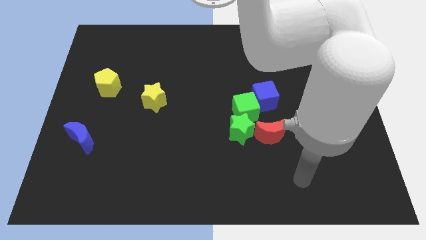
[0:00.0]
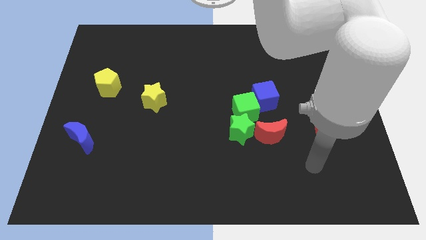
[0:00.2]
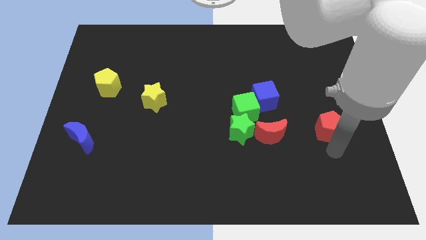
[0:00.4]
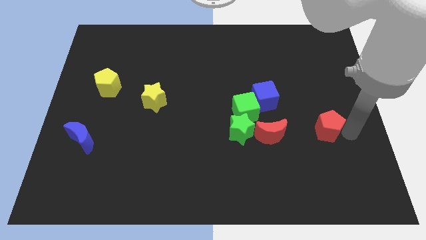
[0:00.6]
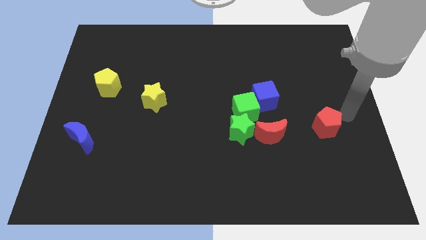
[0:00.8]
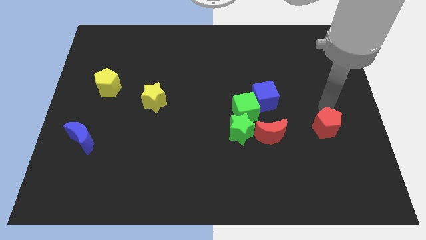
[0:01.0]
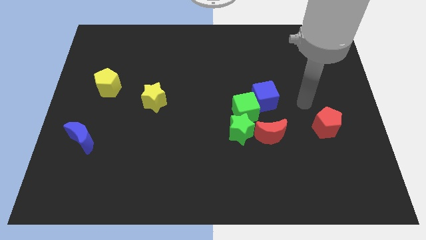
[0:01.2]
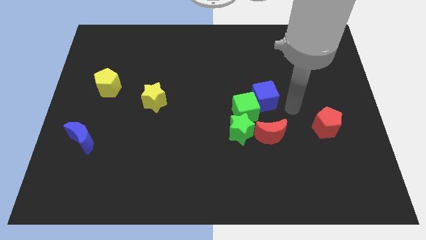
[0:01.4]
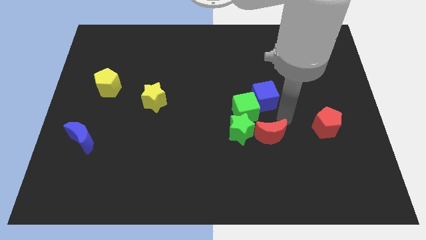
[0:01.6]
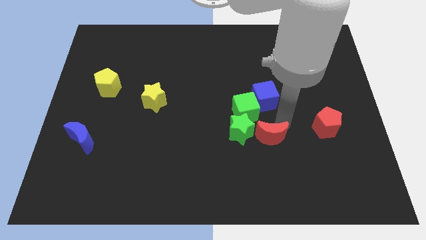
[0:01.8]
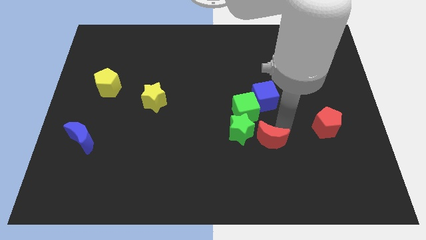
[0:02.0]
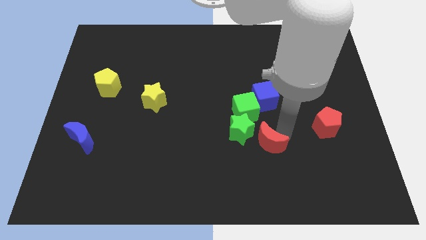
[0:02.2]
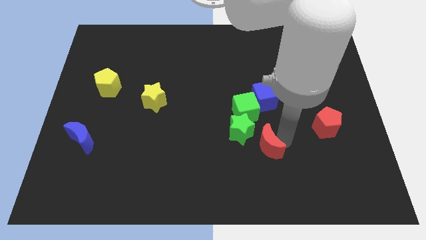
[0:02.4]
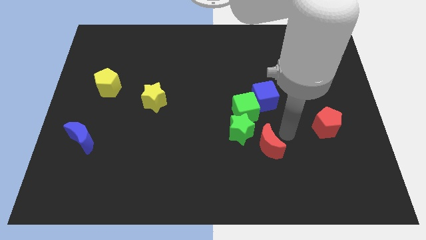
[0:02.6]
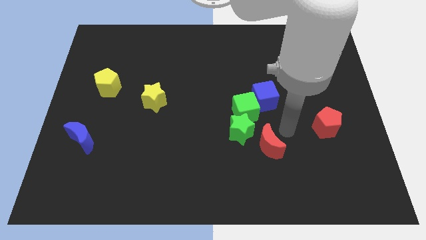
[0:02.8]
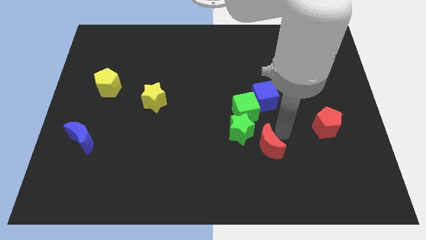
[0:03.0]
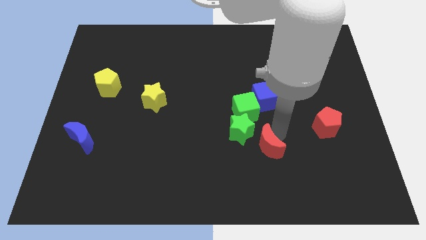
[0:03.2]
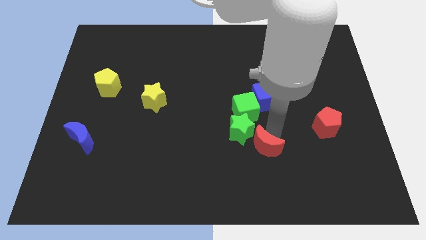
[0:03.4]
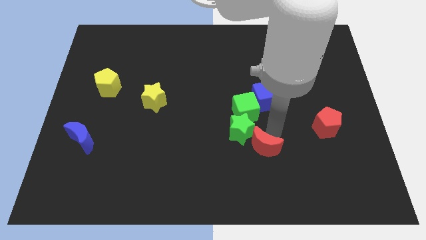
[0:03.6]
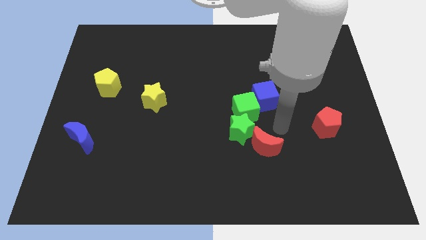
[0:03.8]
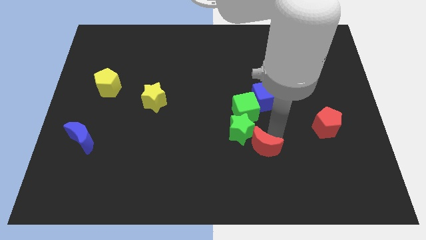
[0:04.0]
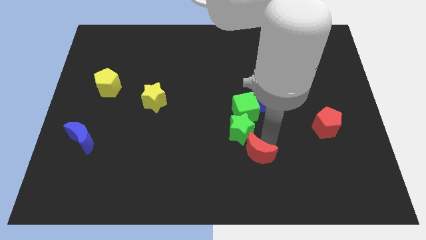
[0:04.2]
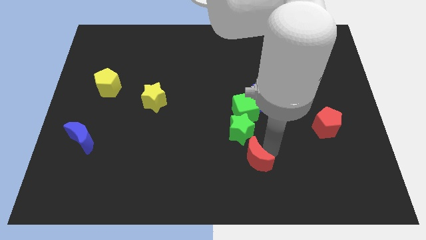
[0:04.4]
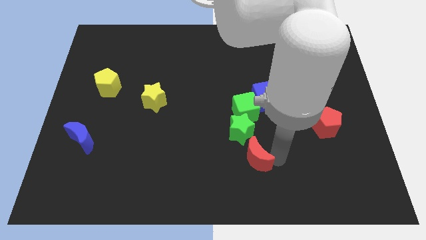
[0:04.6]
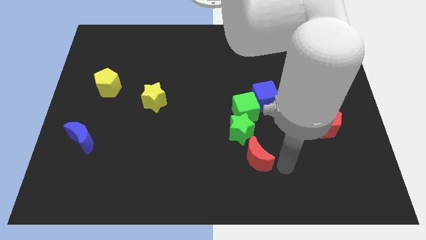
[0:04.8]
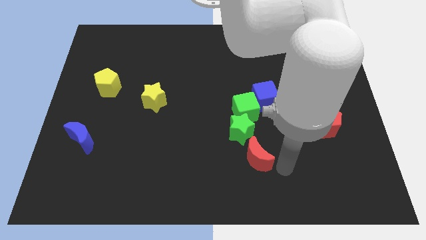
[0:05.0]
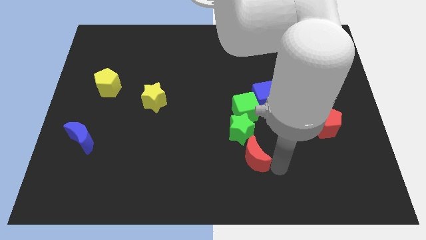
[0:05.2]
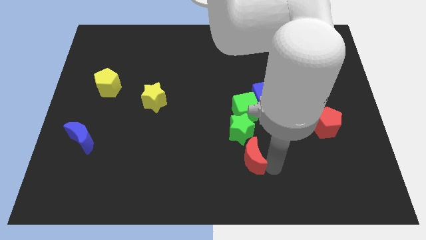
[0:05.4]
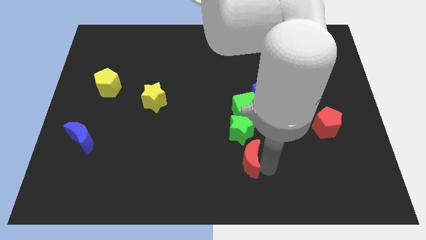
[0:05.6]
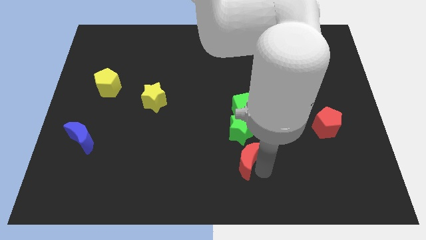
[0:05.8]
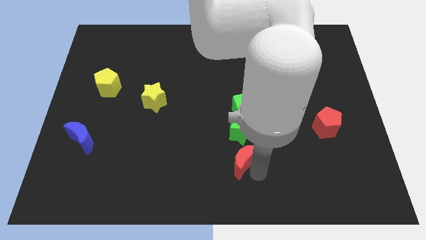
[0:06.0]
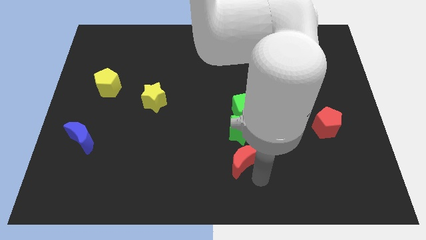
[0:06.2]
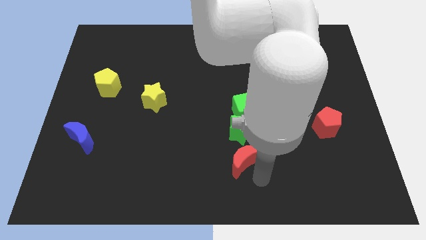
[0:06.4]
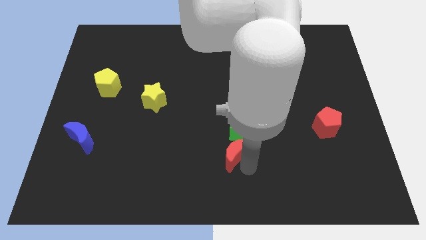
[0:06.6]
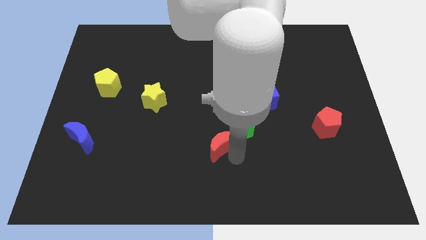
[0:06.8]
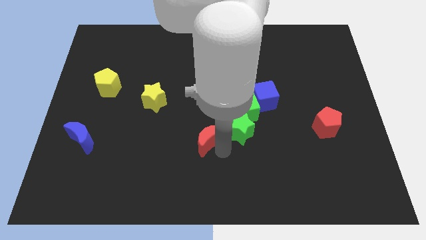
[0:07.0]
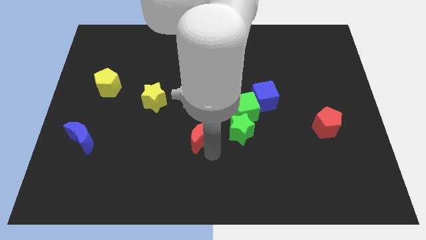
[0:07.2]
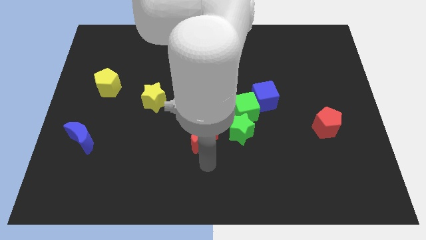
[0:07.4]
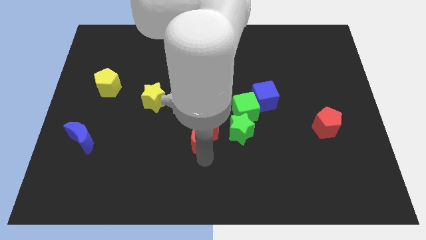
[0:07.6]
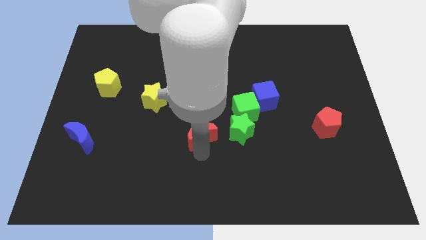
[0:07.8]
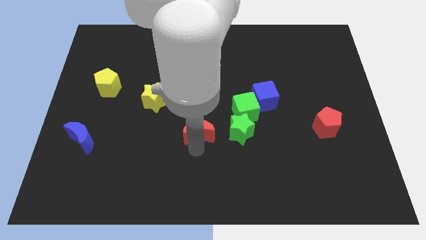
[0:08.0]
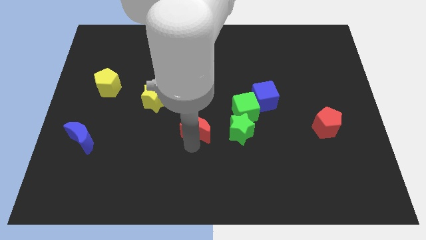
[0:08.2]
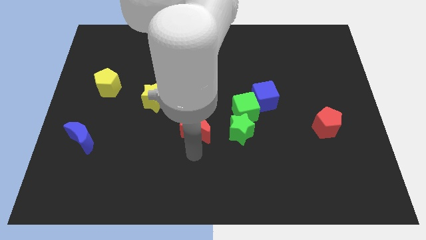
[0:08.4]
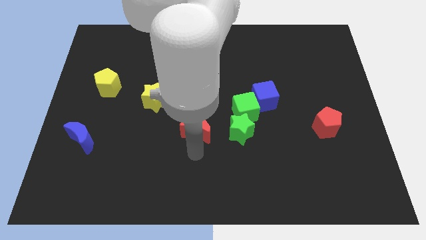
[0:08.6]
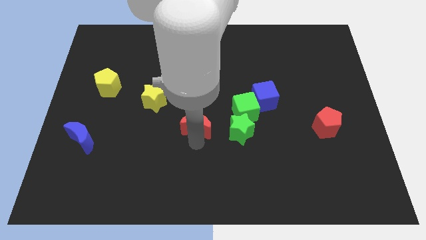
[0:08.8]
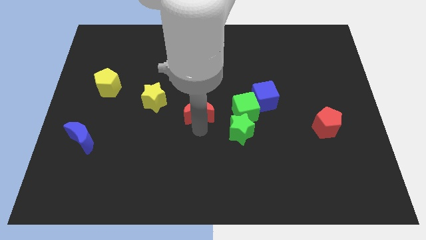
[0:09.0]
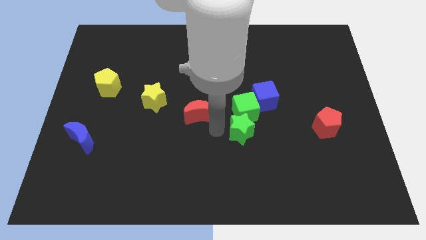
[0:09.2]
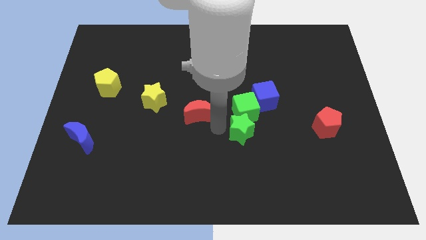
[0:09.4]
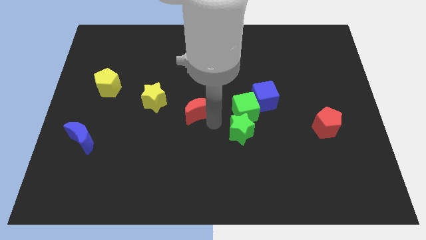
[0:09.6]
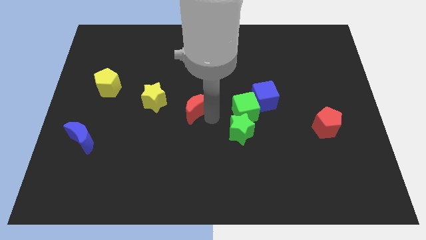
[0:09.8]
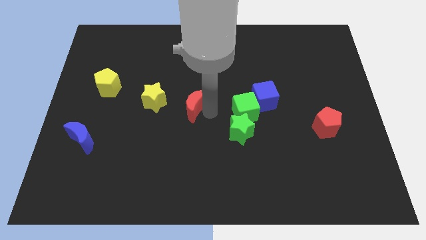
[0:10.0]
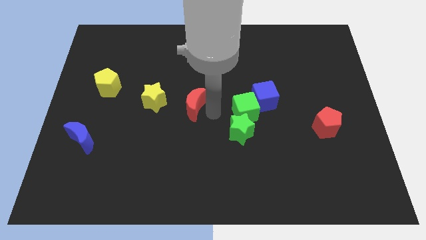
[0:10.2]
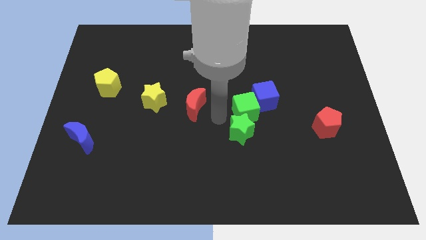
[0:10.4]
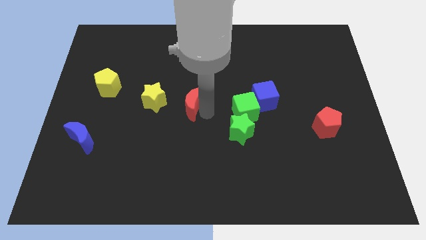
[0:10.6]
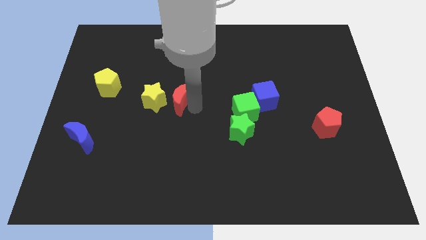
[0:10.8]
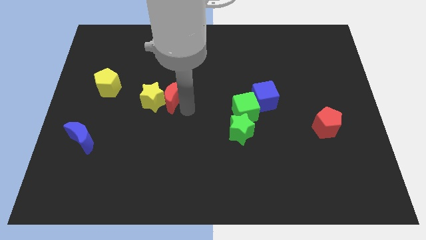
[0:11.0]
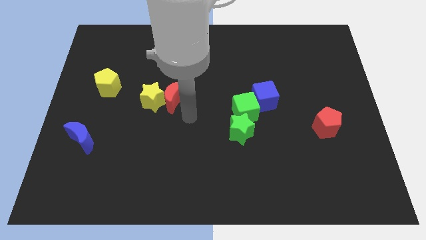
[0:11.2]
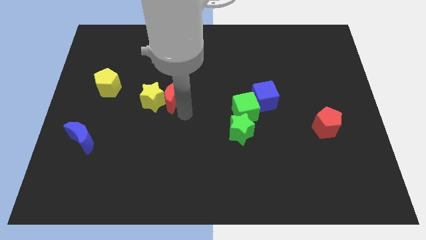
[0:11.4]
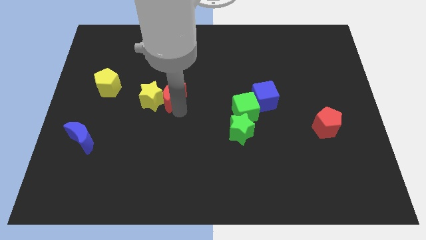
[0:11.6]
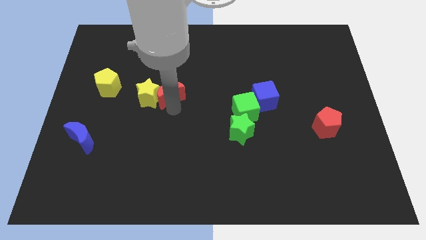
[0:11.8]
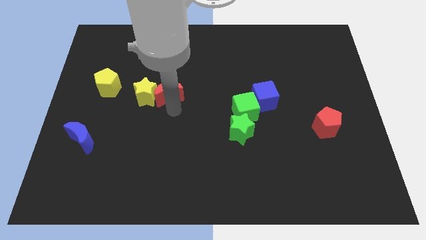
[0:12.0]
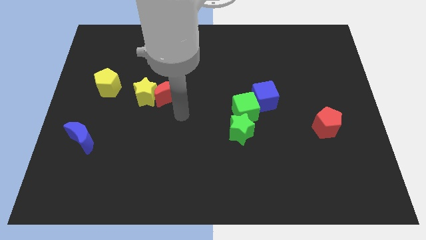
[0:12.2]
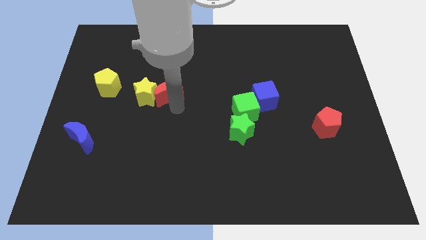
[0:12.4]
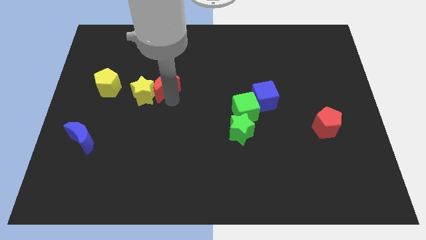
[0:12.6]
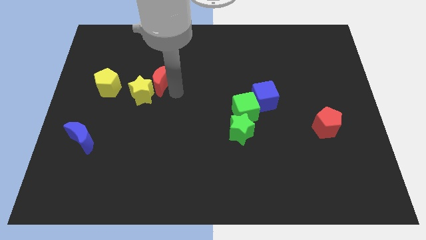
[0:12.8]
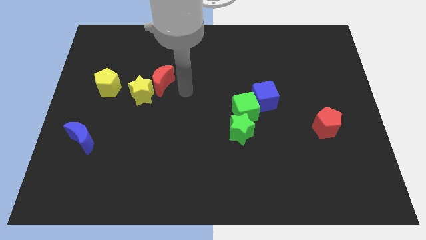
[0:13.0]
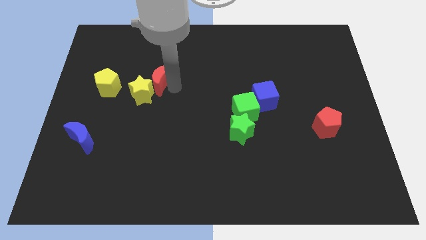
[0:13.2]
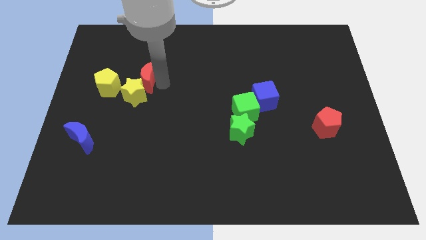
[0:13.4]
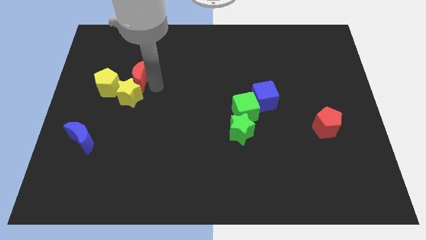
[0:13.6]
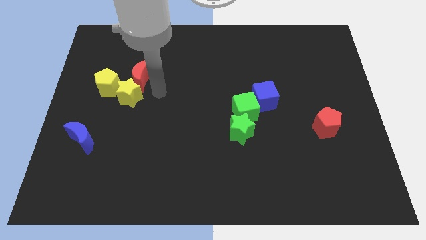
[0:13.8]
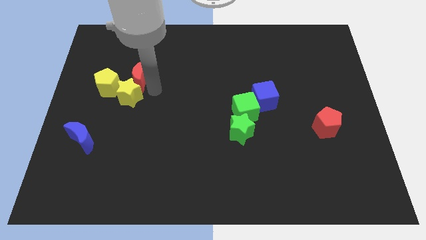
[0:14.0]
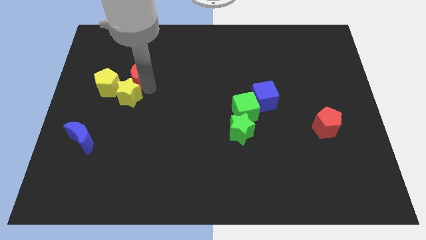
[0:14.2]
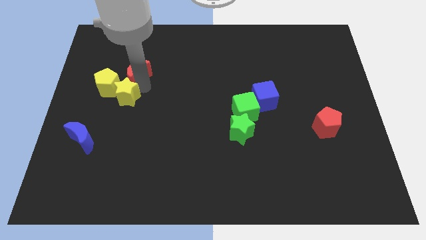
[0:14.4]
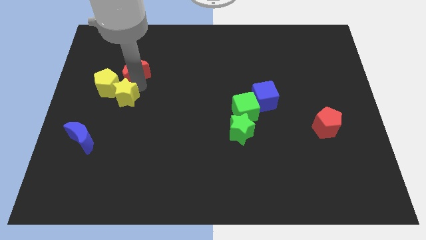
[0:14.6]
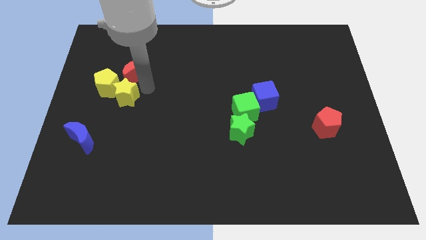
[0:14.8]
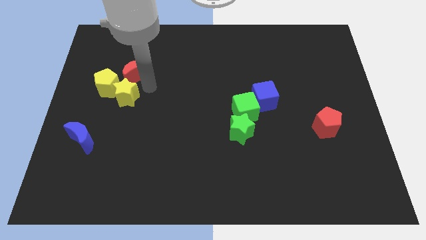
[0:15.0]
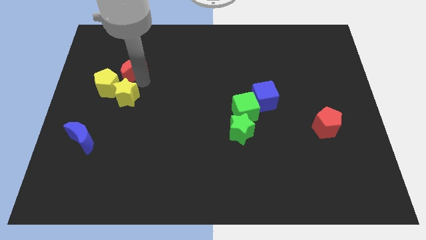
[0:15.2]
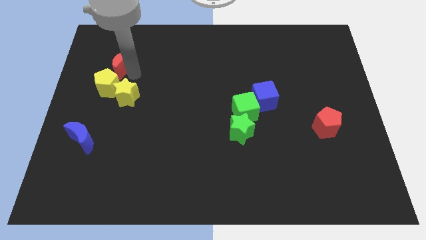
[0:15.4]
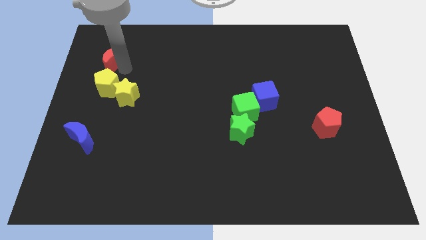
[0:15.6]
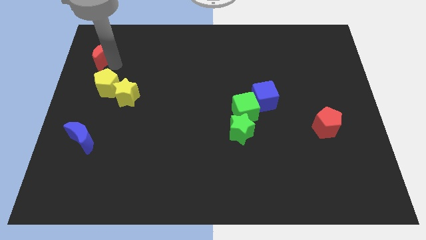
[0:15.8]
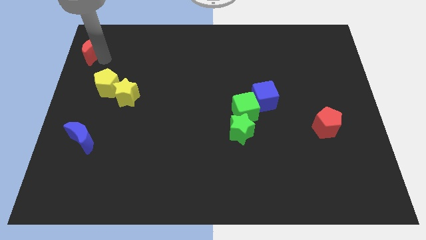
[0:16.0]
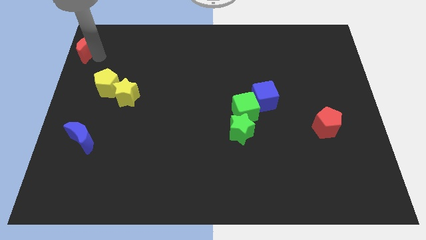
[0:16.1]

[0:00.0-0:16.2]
put the red moon to the upper left corner
